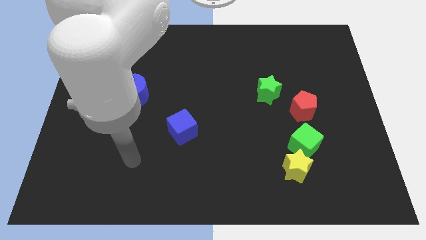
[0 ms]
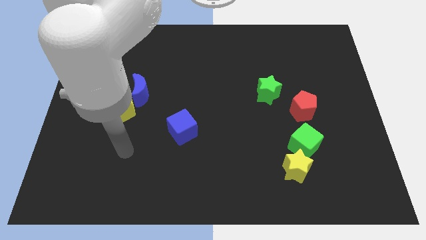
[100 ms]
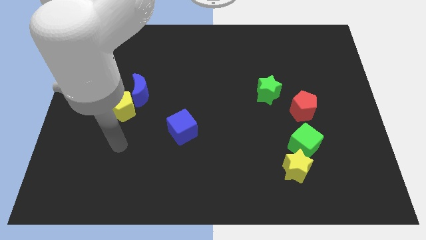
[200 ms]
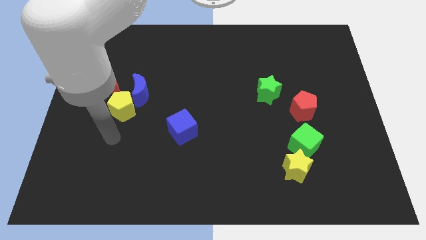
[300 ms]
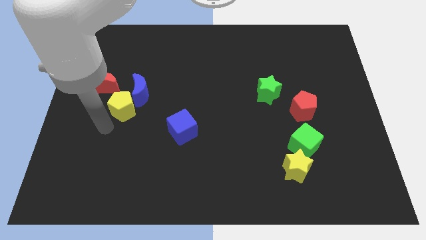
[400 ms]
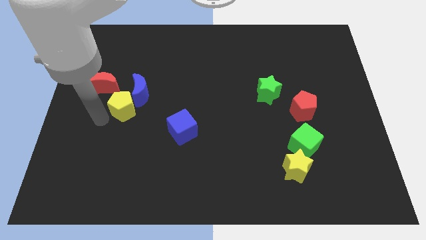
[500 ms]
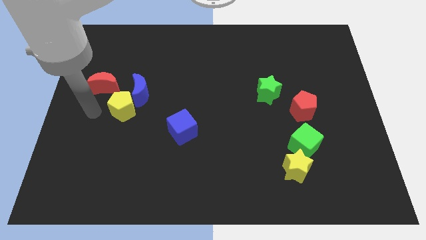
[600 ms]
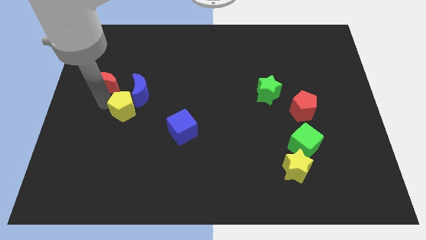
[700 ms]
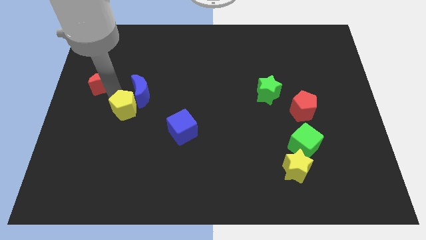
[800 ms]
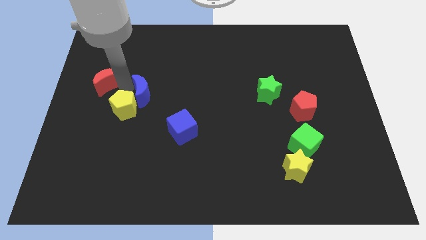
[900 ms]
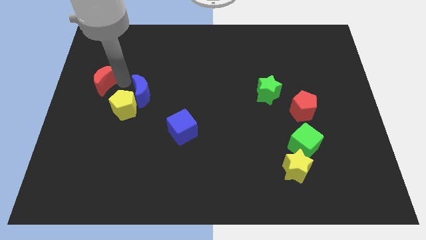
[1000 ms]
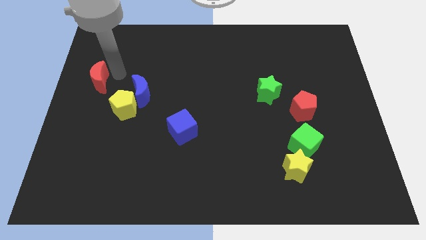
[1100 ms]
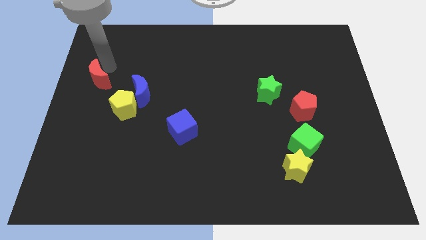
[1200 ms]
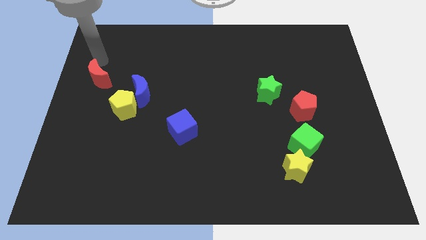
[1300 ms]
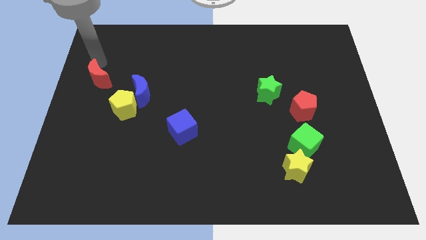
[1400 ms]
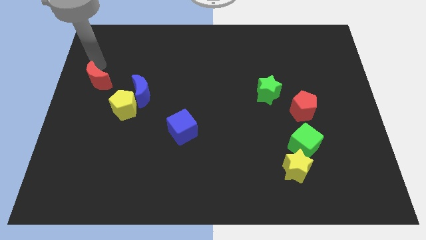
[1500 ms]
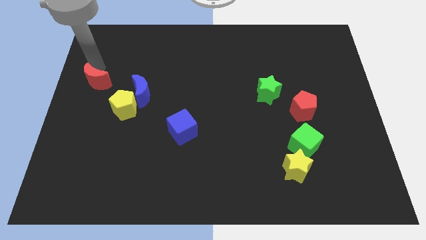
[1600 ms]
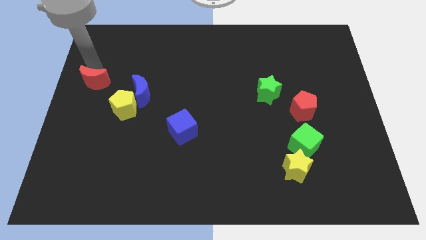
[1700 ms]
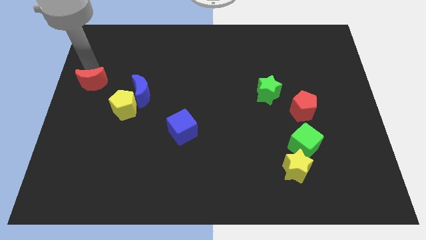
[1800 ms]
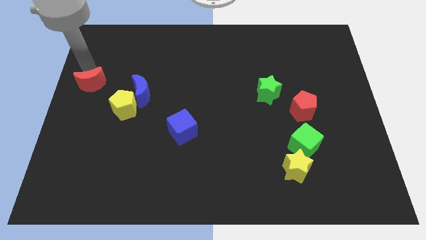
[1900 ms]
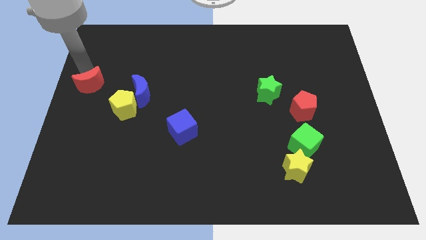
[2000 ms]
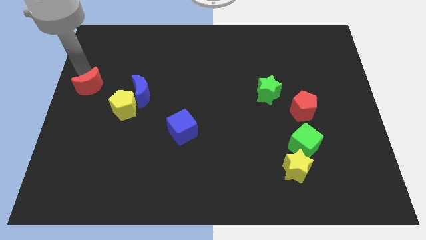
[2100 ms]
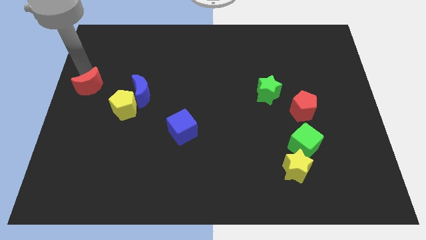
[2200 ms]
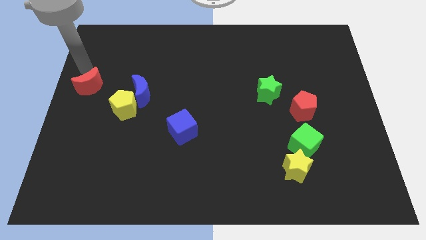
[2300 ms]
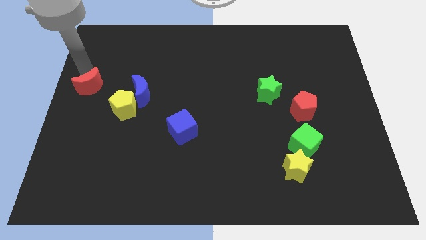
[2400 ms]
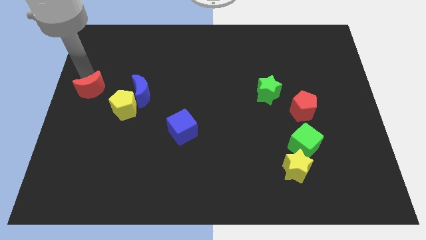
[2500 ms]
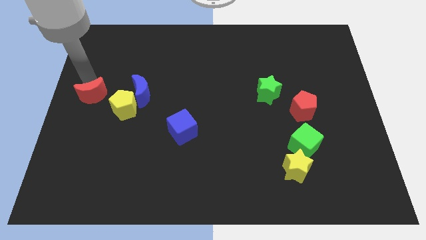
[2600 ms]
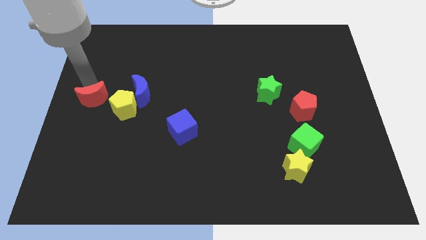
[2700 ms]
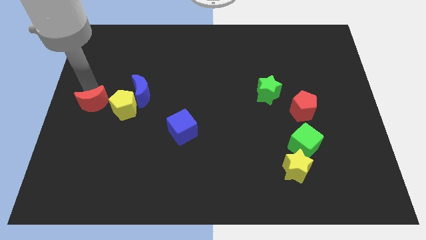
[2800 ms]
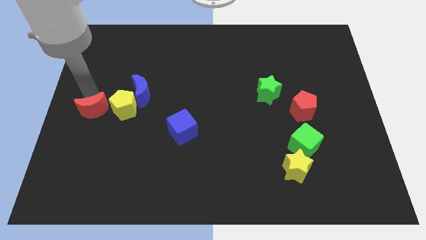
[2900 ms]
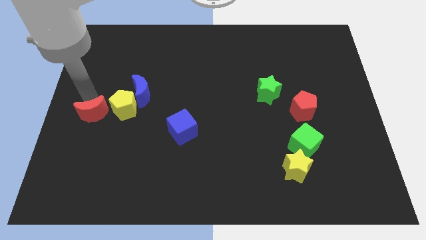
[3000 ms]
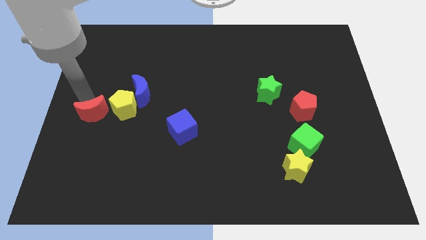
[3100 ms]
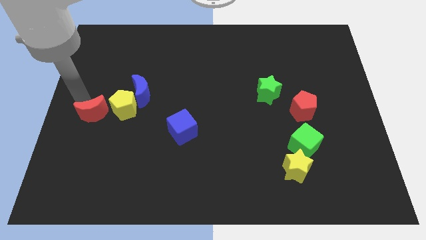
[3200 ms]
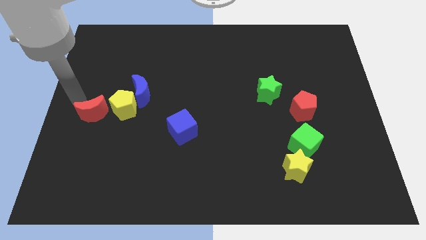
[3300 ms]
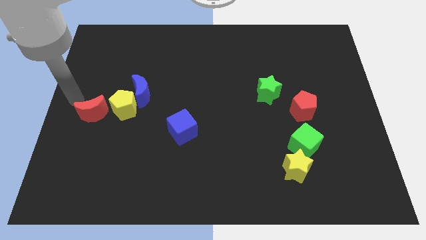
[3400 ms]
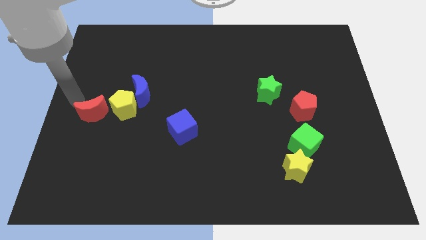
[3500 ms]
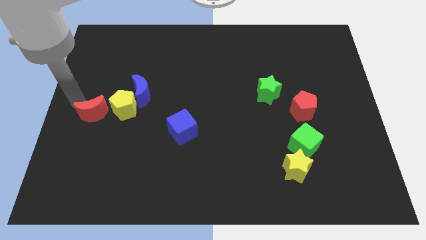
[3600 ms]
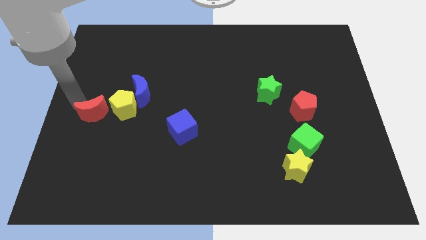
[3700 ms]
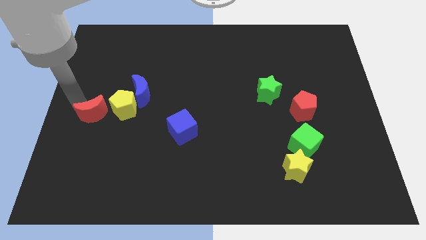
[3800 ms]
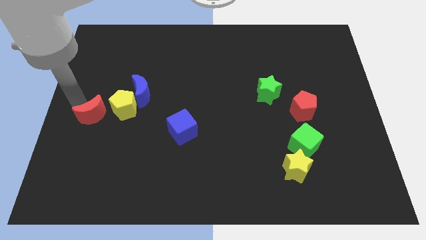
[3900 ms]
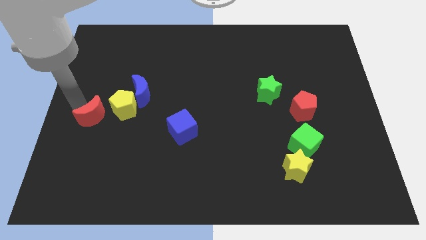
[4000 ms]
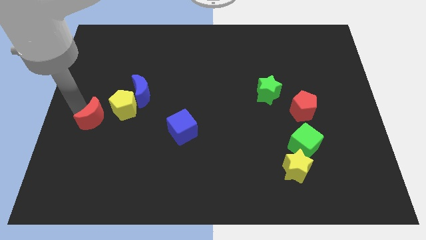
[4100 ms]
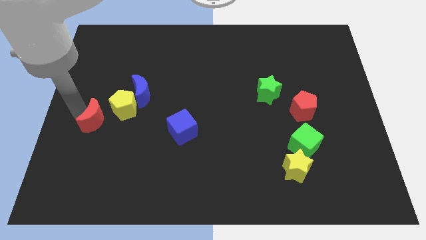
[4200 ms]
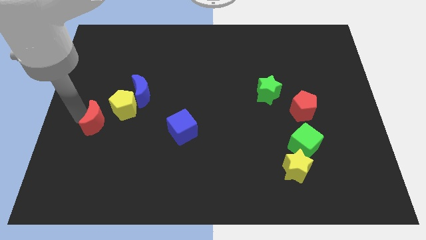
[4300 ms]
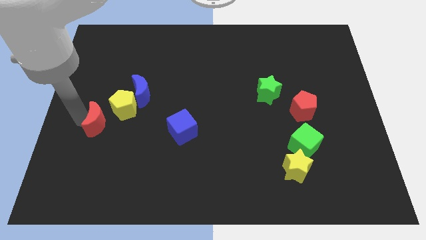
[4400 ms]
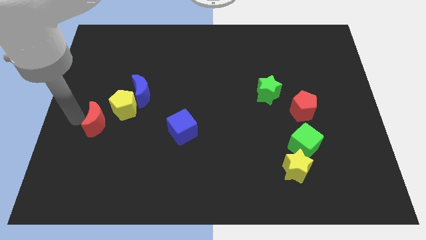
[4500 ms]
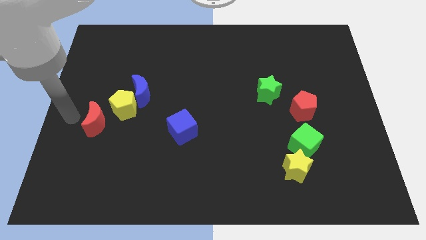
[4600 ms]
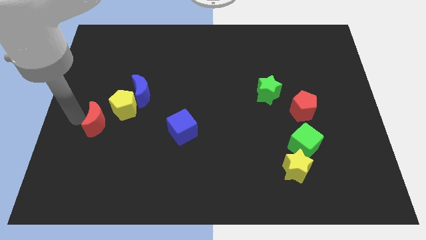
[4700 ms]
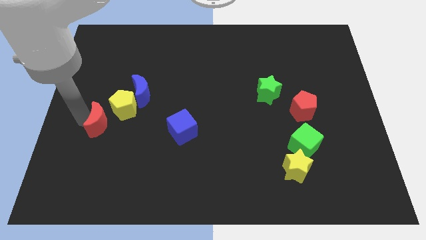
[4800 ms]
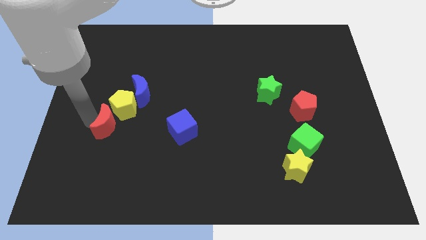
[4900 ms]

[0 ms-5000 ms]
move the red moon downwards and right a little bit

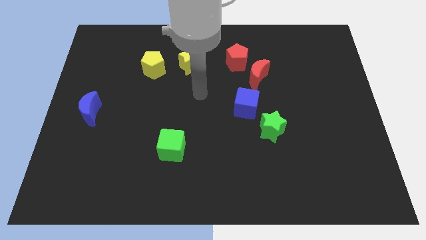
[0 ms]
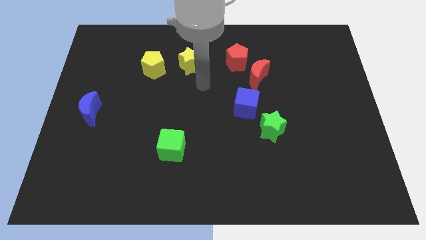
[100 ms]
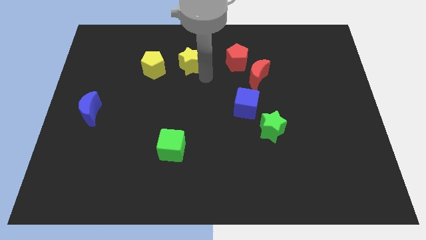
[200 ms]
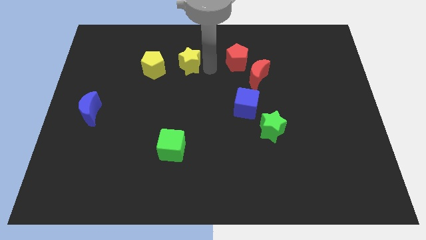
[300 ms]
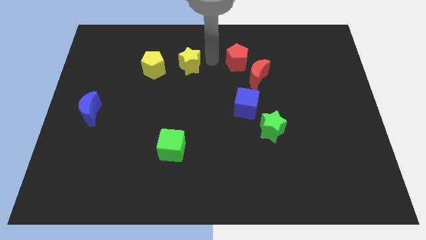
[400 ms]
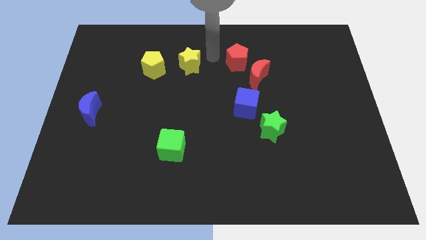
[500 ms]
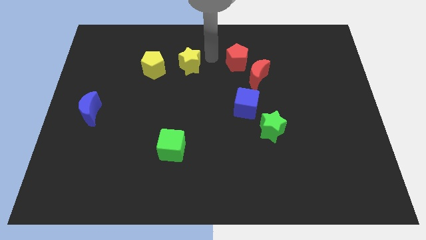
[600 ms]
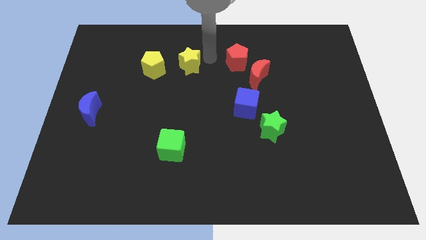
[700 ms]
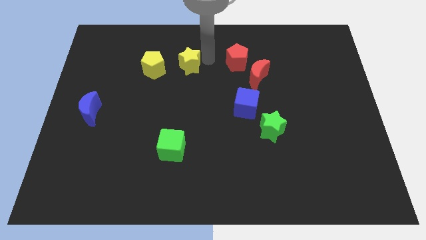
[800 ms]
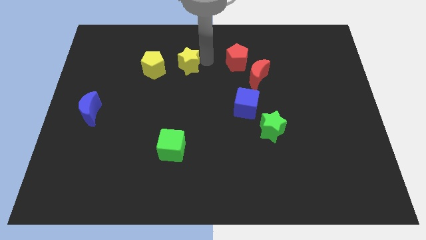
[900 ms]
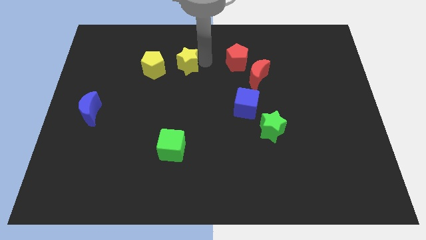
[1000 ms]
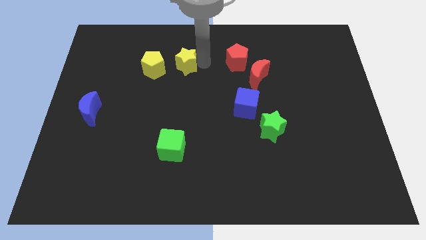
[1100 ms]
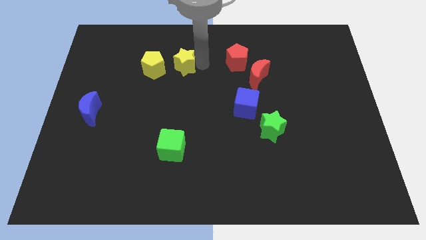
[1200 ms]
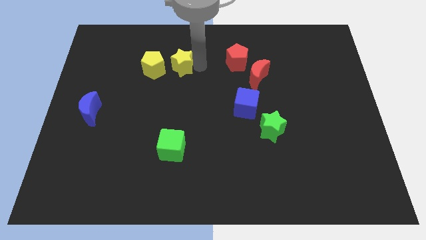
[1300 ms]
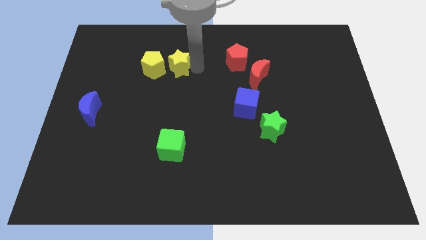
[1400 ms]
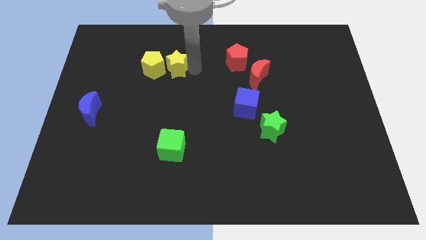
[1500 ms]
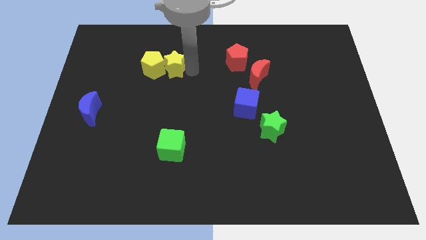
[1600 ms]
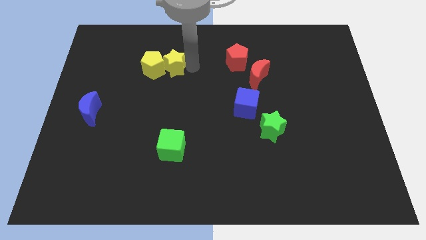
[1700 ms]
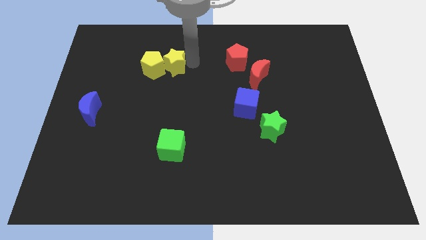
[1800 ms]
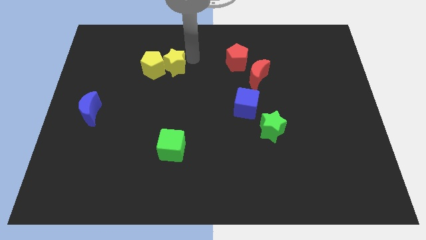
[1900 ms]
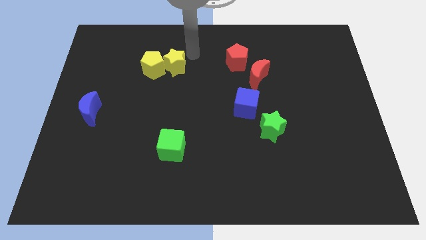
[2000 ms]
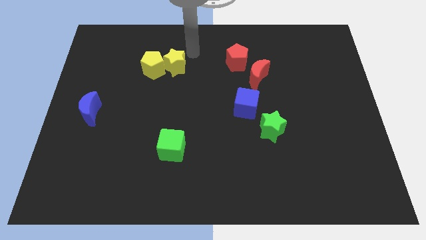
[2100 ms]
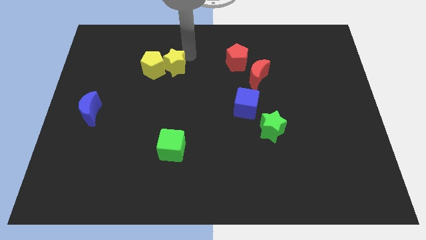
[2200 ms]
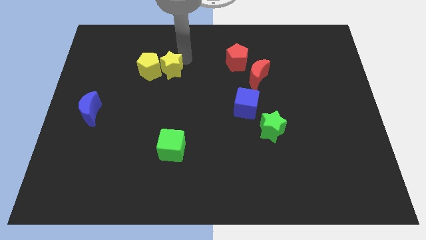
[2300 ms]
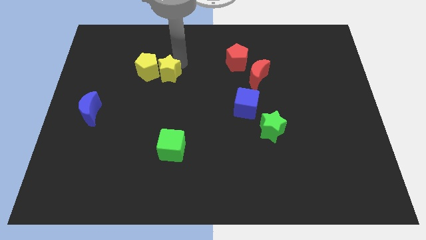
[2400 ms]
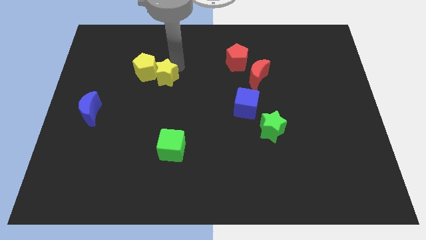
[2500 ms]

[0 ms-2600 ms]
slightly push the yellow star down and then left

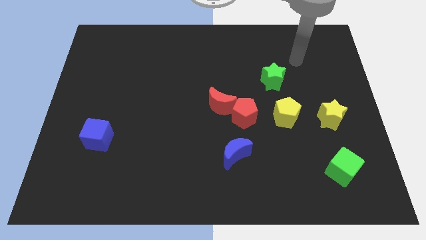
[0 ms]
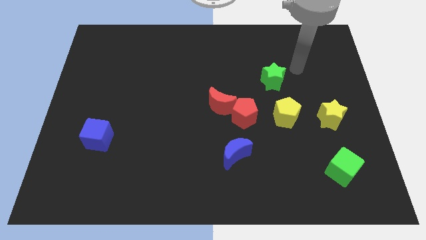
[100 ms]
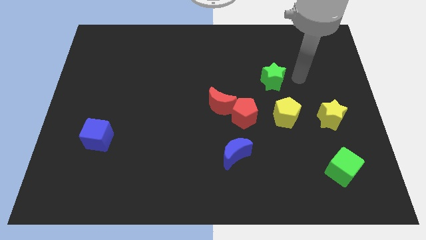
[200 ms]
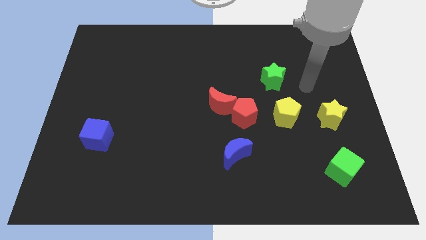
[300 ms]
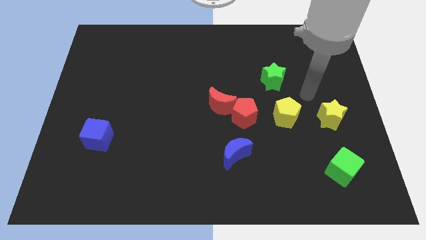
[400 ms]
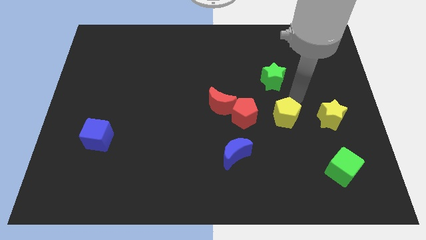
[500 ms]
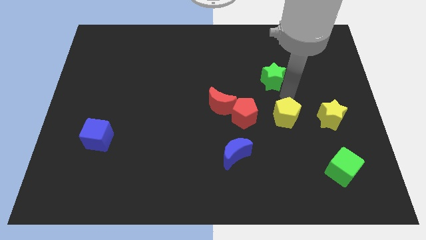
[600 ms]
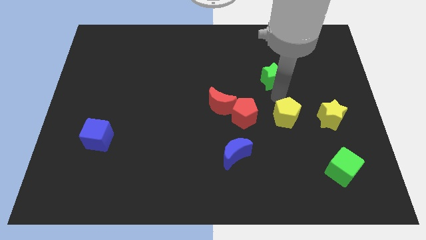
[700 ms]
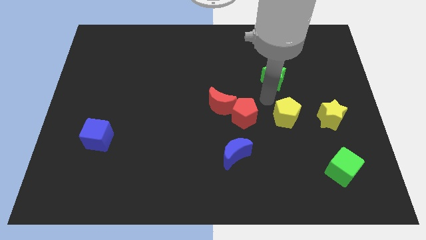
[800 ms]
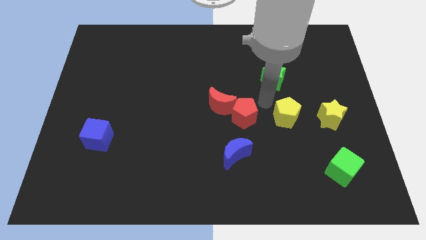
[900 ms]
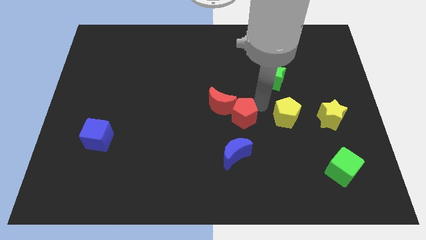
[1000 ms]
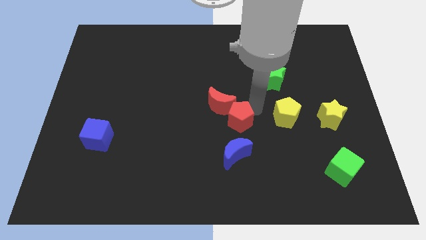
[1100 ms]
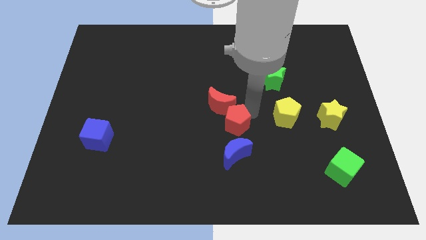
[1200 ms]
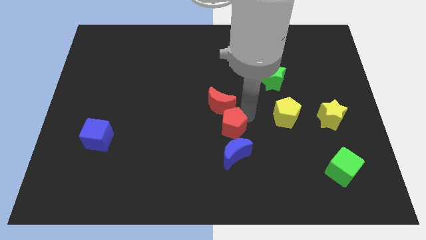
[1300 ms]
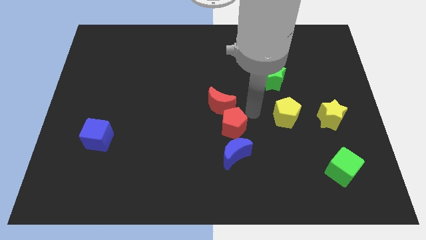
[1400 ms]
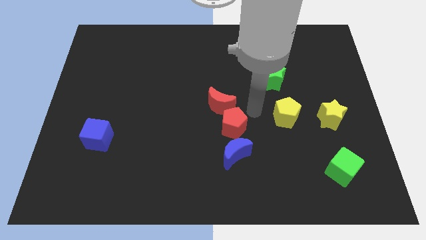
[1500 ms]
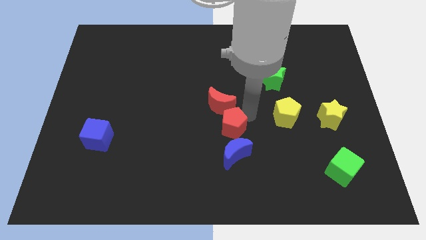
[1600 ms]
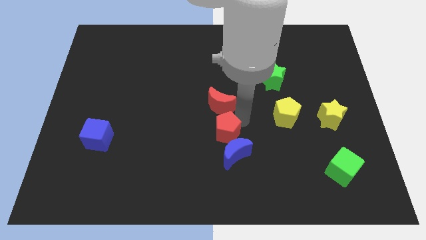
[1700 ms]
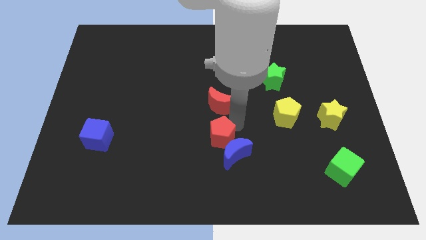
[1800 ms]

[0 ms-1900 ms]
slightly push the red pentagon diagonally downwards and to the left
